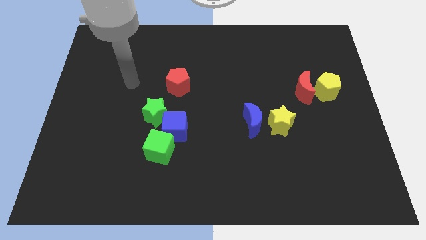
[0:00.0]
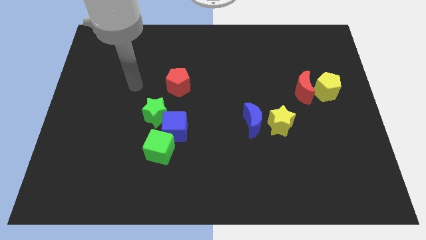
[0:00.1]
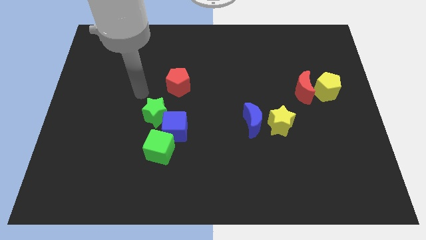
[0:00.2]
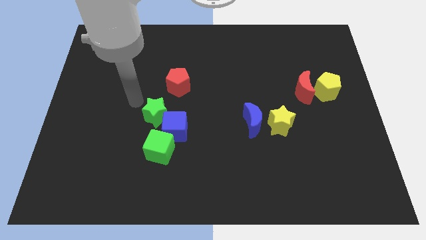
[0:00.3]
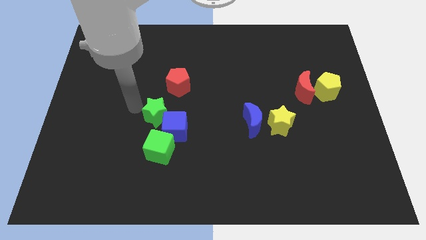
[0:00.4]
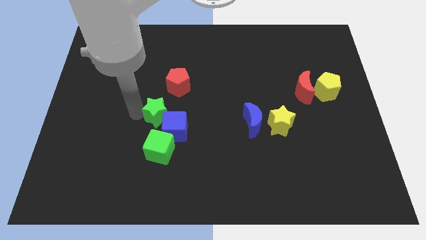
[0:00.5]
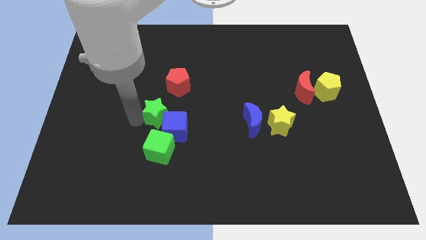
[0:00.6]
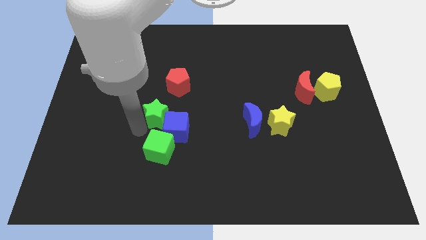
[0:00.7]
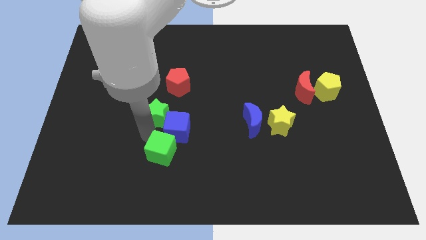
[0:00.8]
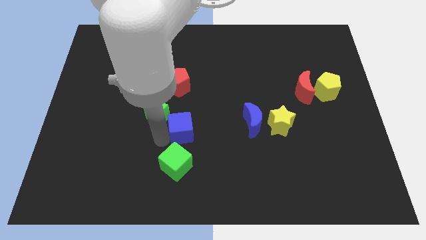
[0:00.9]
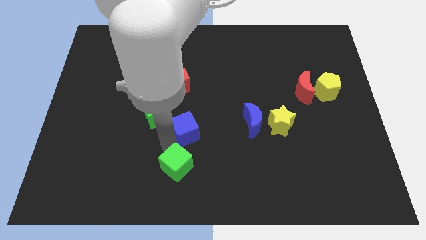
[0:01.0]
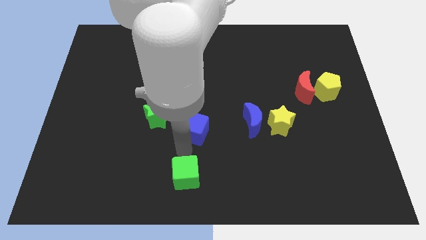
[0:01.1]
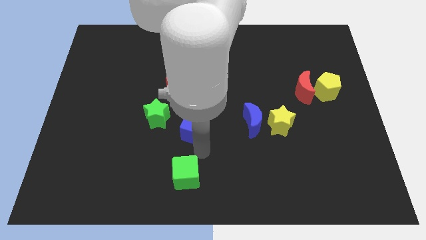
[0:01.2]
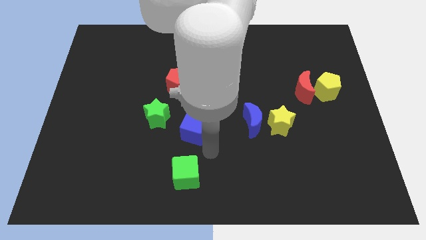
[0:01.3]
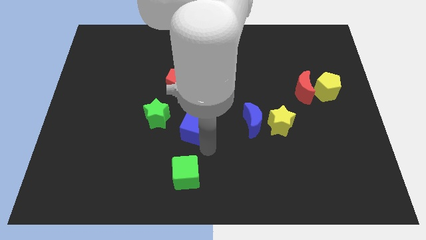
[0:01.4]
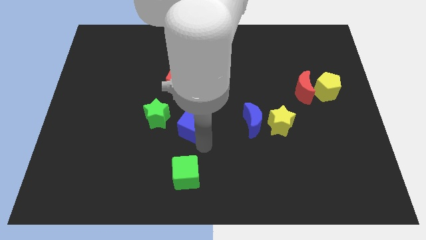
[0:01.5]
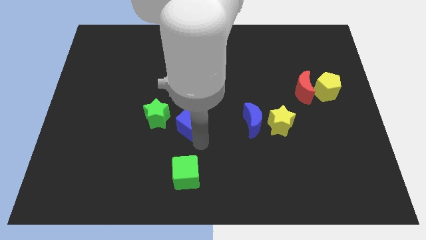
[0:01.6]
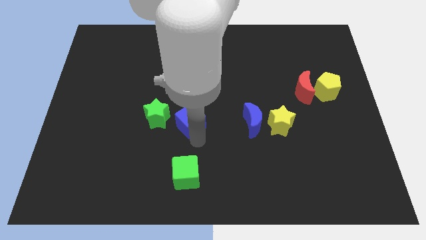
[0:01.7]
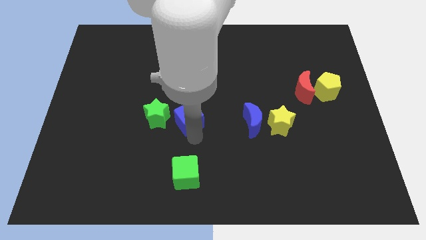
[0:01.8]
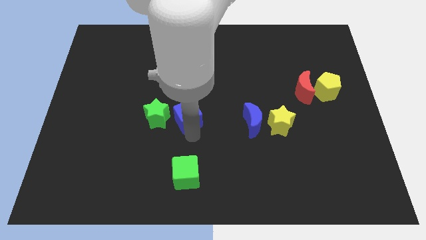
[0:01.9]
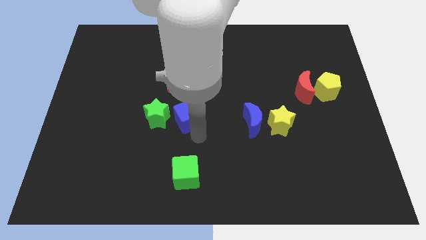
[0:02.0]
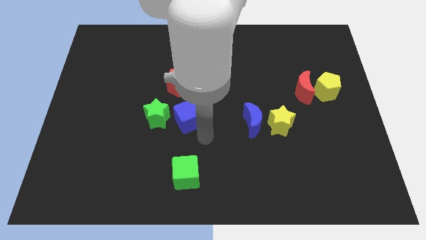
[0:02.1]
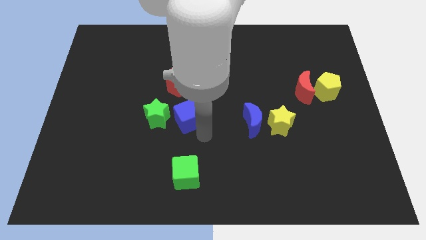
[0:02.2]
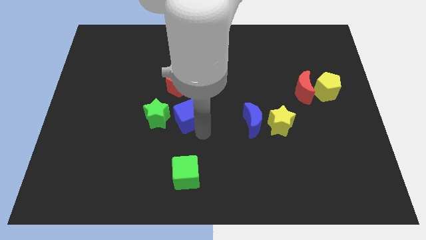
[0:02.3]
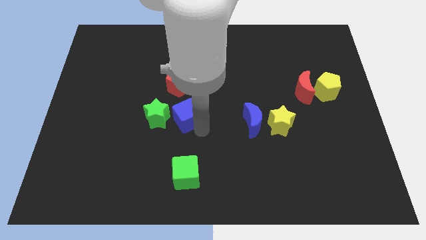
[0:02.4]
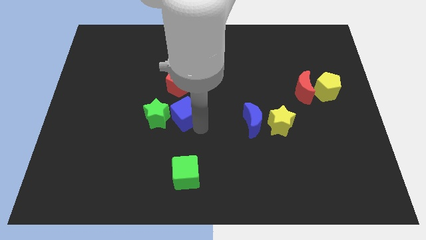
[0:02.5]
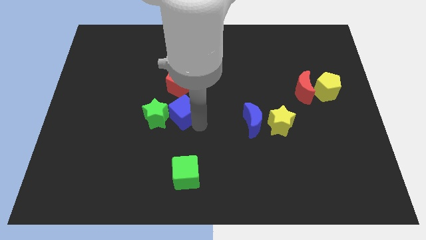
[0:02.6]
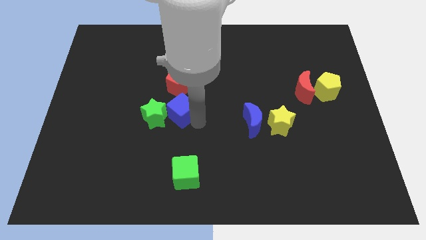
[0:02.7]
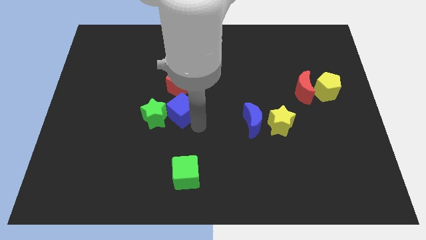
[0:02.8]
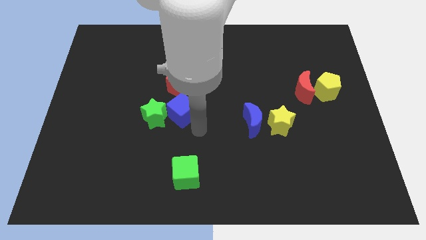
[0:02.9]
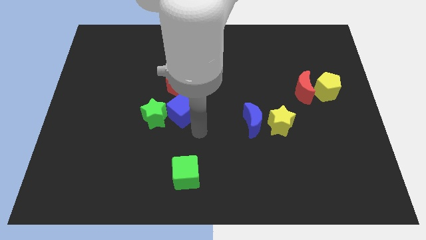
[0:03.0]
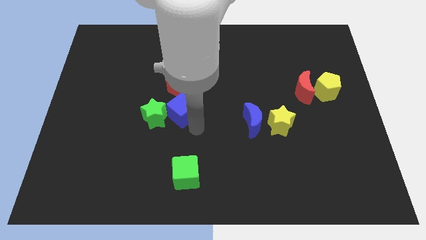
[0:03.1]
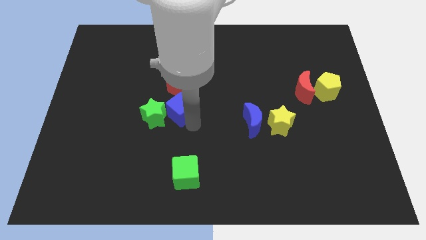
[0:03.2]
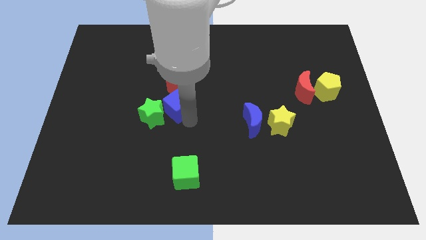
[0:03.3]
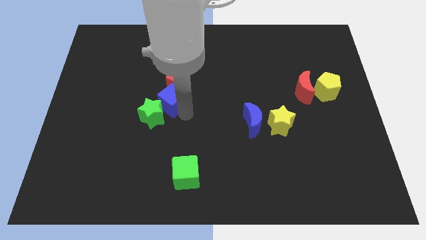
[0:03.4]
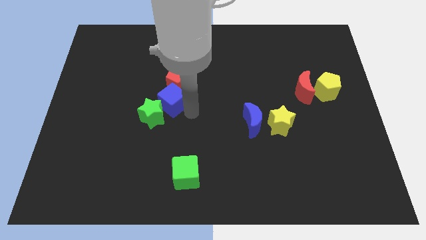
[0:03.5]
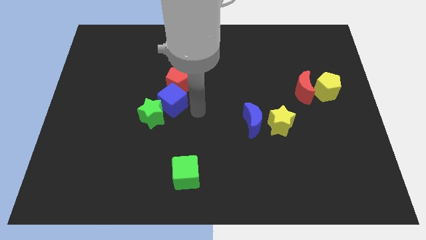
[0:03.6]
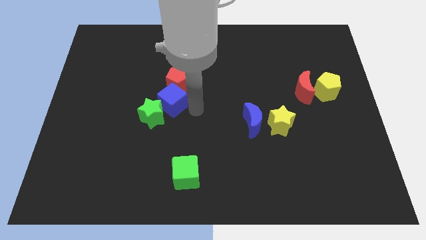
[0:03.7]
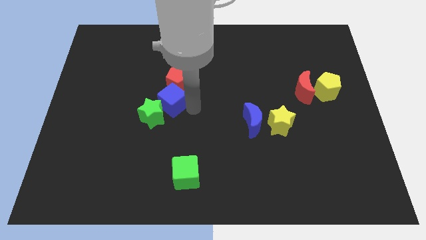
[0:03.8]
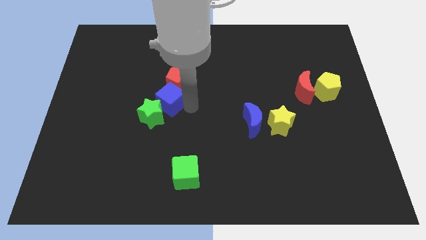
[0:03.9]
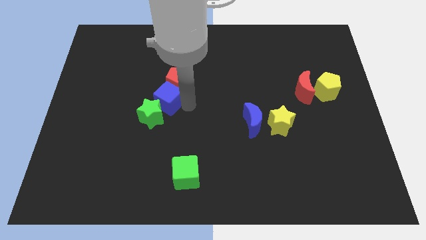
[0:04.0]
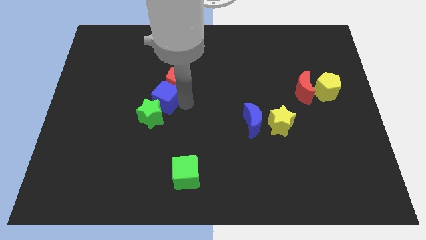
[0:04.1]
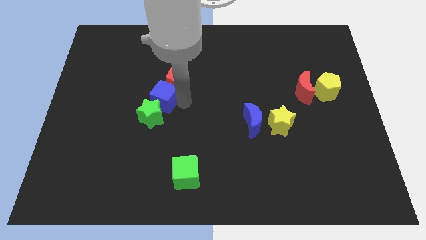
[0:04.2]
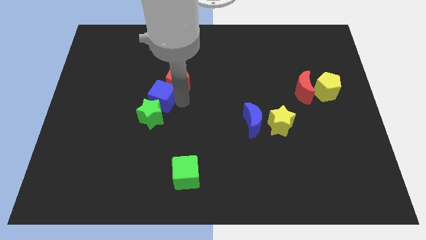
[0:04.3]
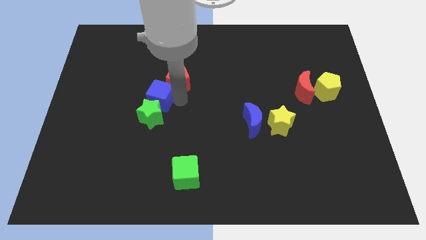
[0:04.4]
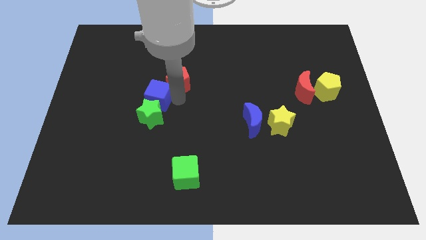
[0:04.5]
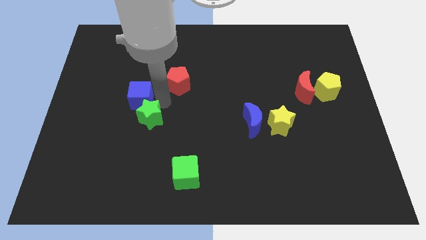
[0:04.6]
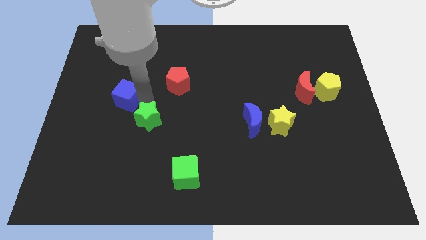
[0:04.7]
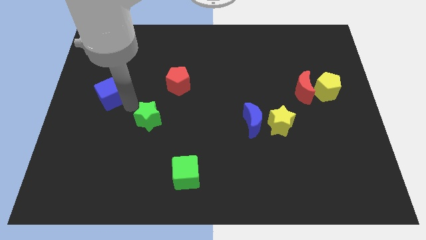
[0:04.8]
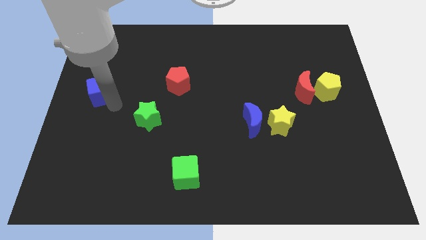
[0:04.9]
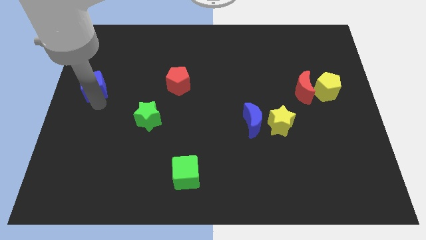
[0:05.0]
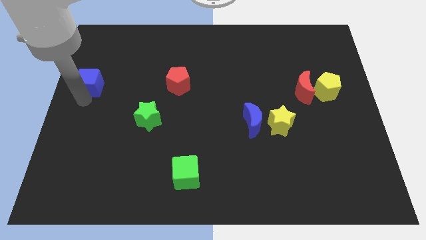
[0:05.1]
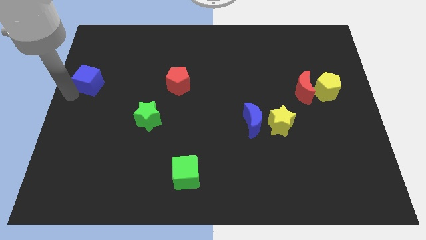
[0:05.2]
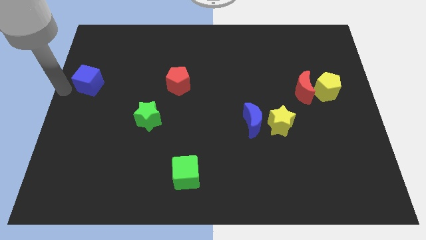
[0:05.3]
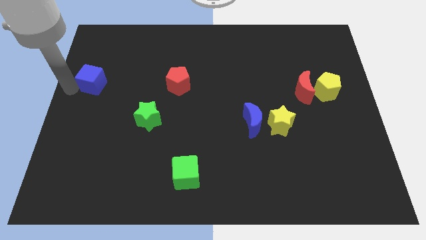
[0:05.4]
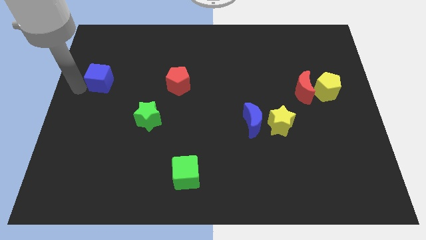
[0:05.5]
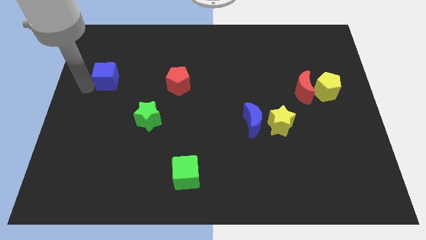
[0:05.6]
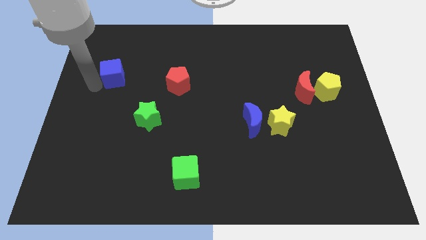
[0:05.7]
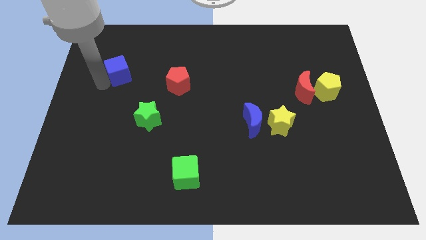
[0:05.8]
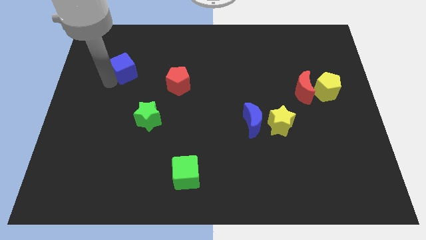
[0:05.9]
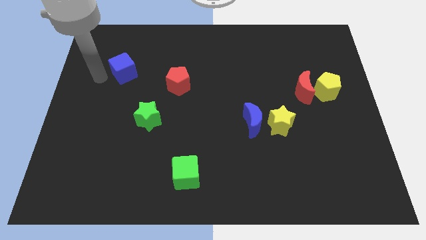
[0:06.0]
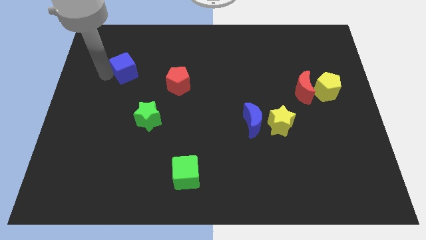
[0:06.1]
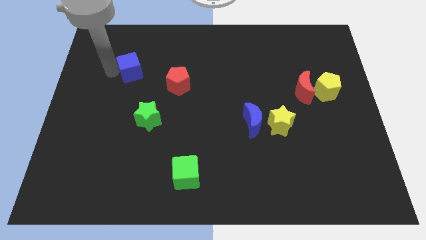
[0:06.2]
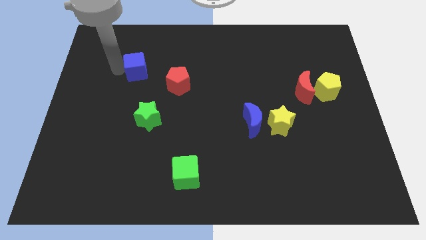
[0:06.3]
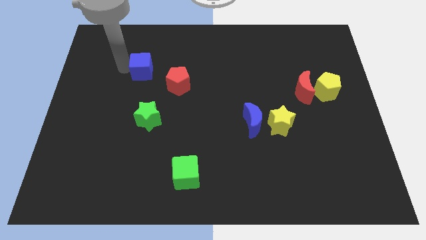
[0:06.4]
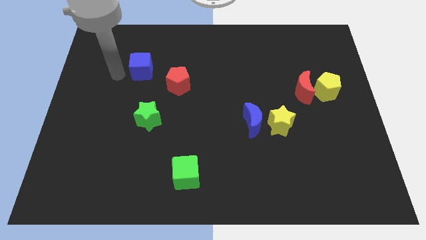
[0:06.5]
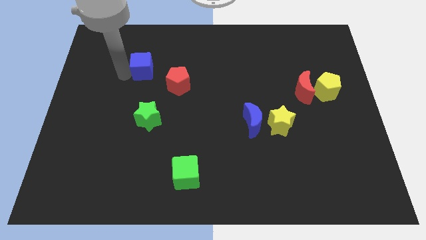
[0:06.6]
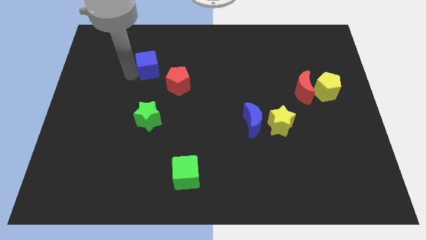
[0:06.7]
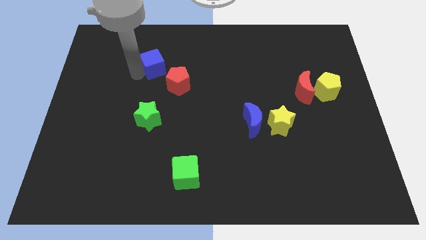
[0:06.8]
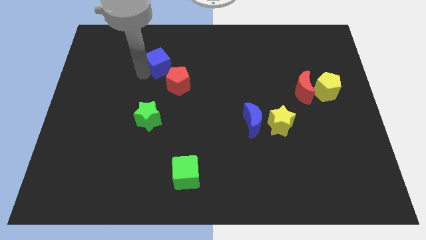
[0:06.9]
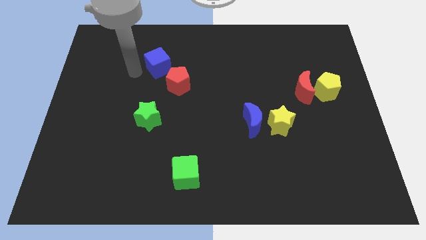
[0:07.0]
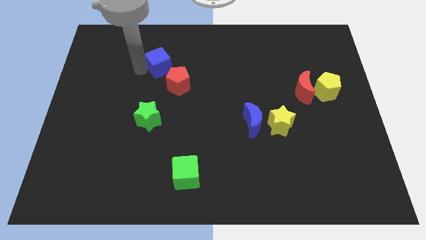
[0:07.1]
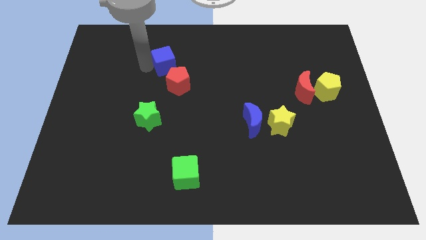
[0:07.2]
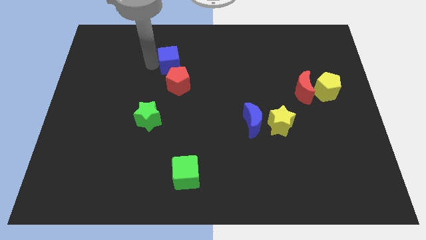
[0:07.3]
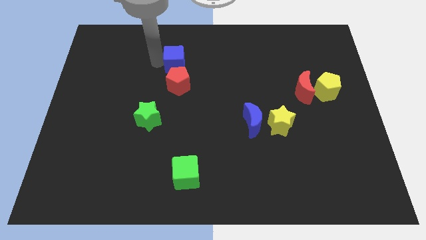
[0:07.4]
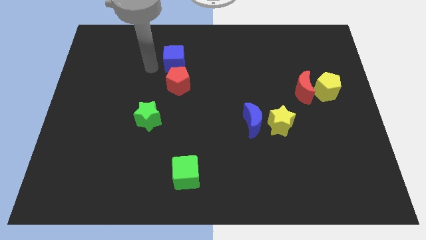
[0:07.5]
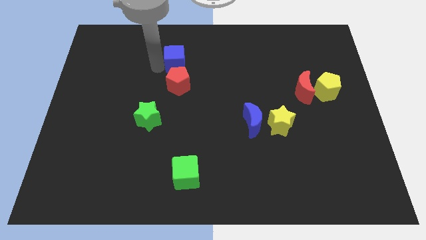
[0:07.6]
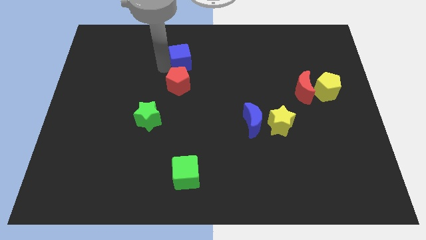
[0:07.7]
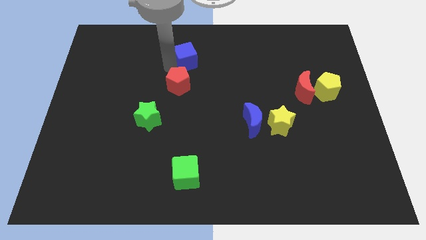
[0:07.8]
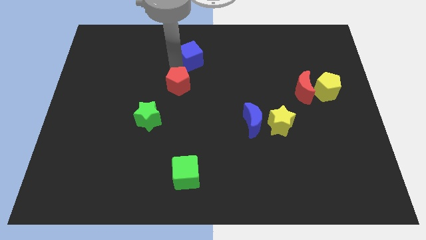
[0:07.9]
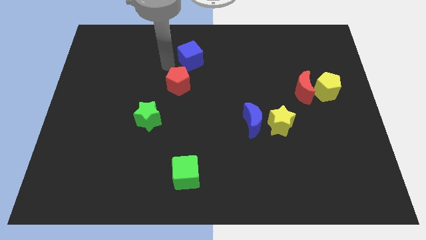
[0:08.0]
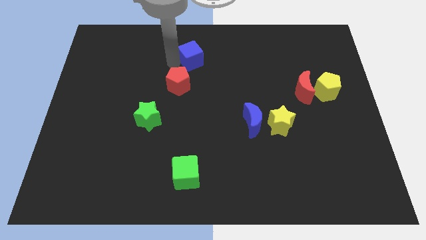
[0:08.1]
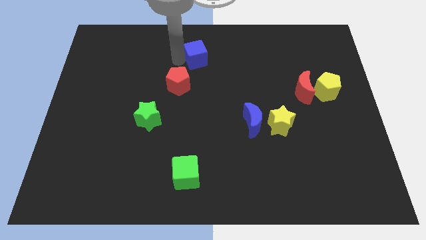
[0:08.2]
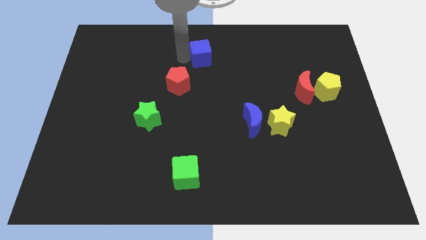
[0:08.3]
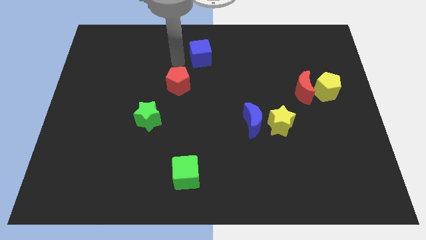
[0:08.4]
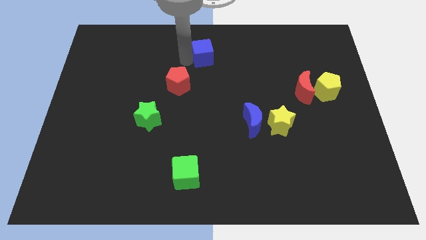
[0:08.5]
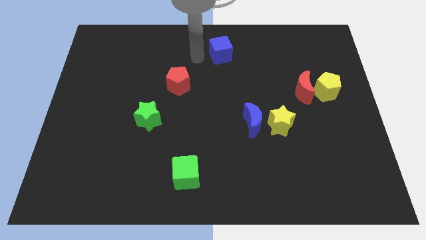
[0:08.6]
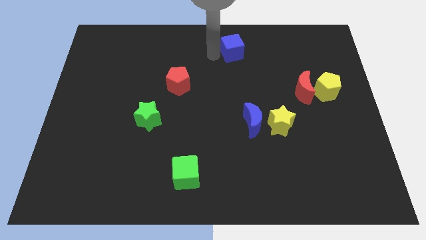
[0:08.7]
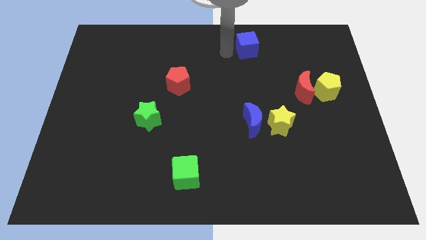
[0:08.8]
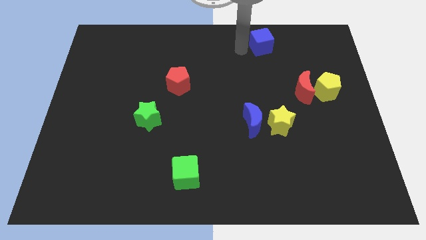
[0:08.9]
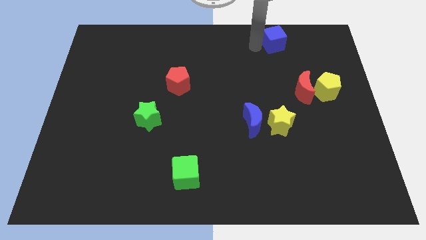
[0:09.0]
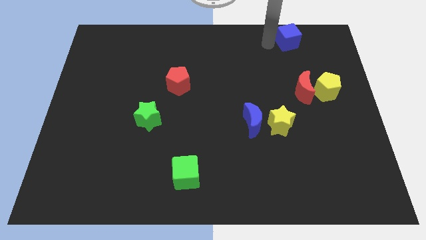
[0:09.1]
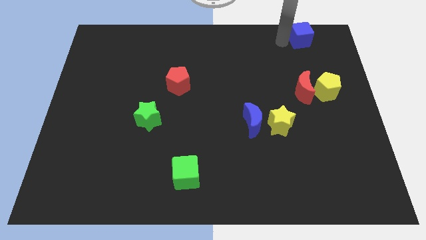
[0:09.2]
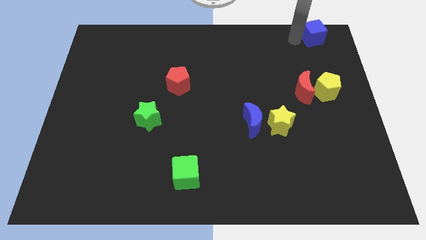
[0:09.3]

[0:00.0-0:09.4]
put the blue cube to the upper right corner
